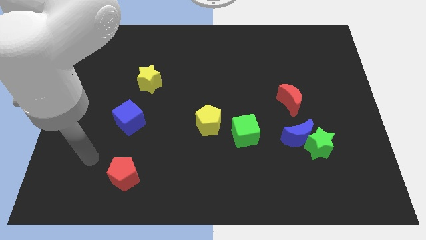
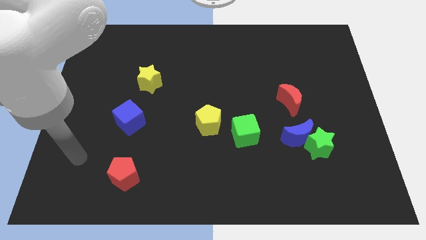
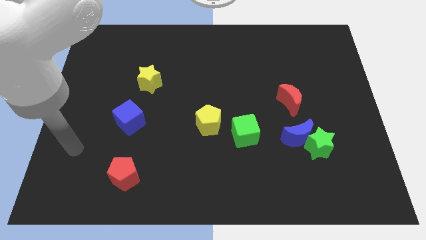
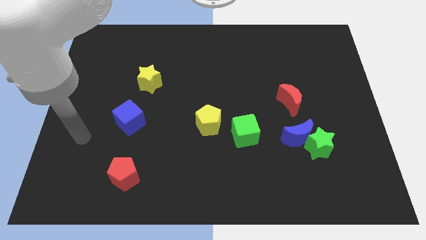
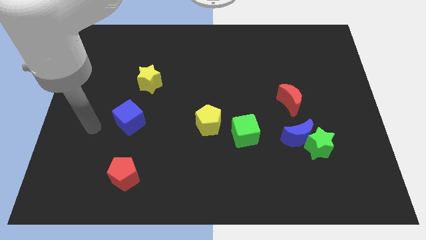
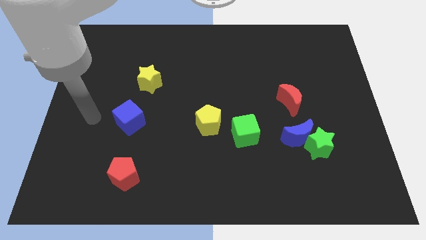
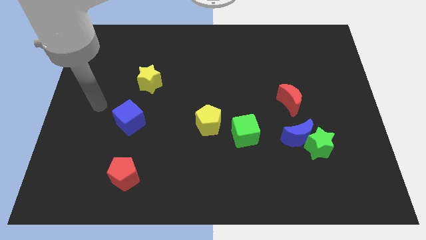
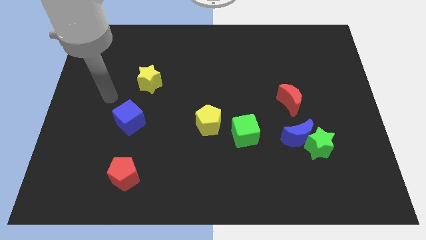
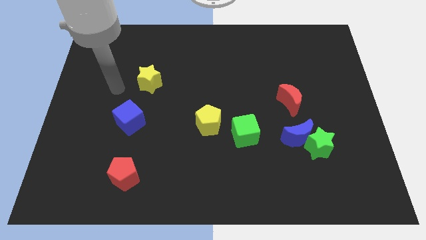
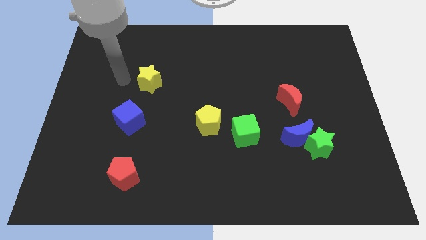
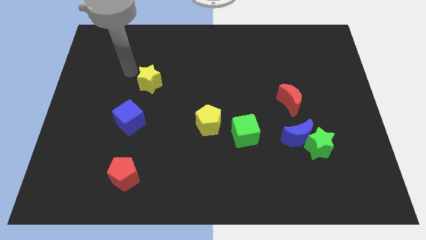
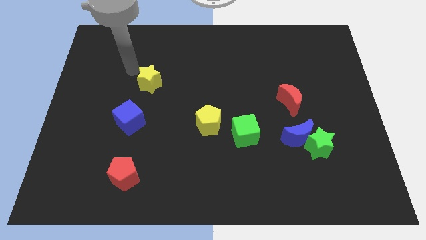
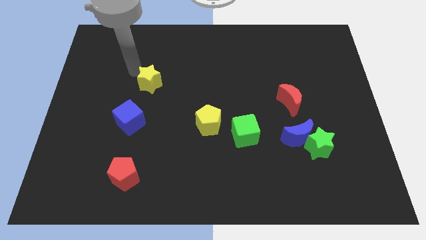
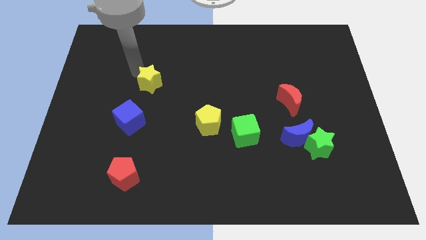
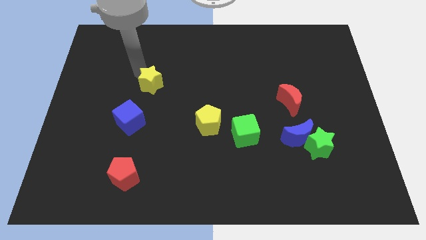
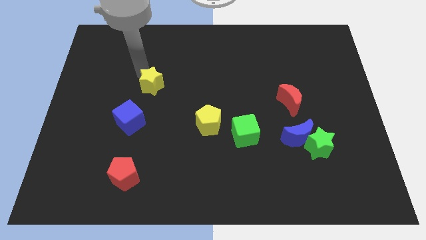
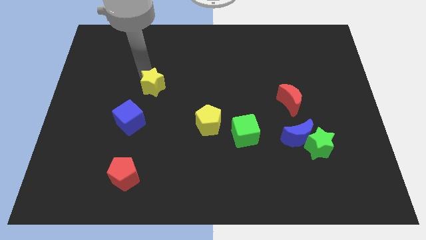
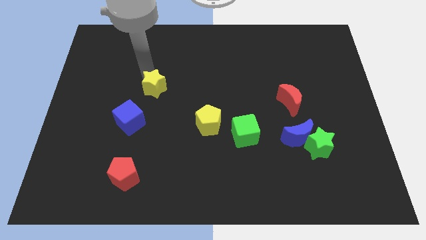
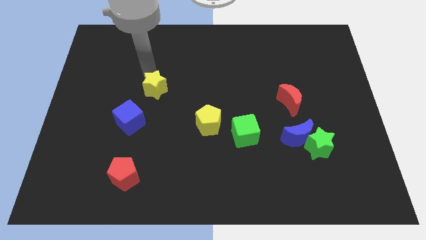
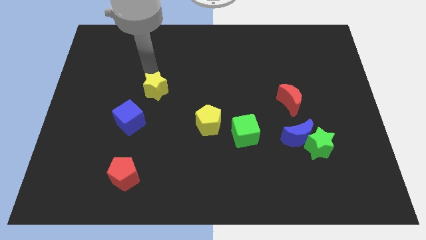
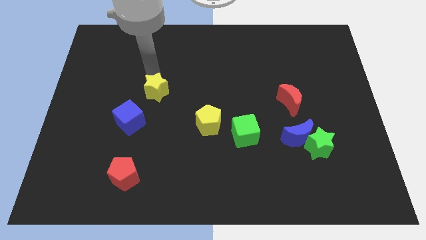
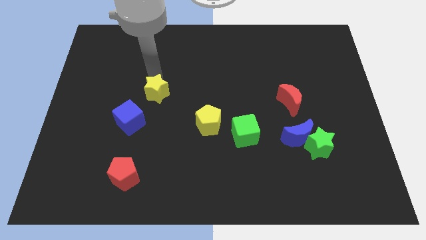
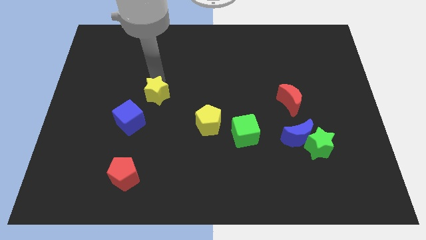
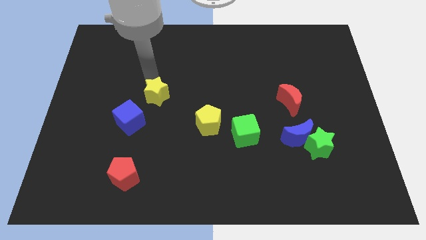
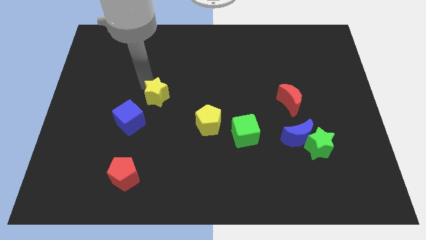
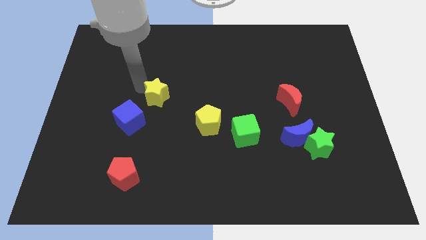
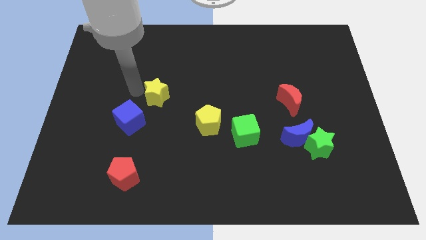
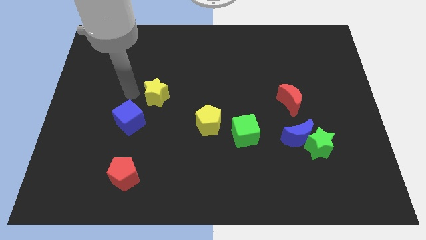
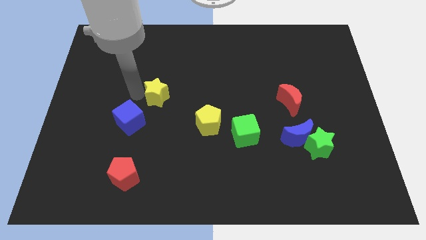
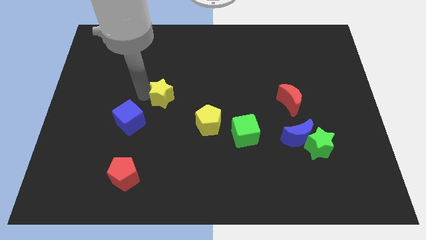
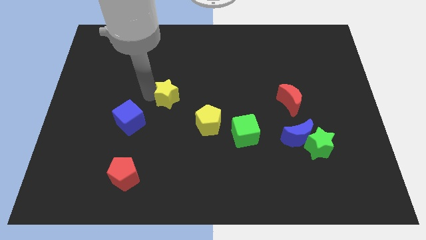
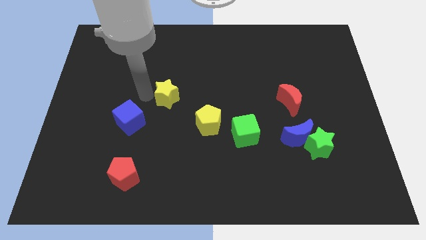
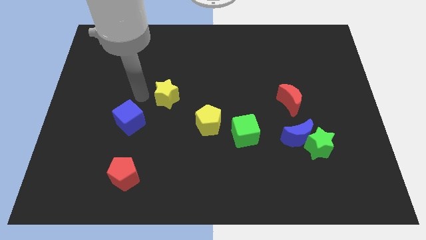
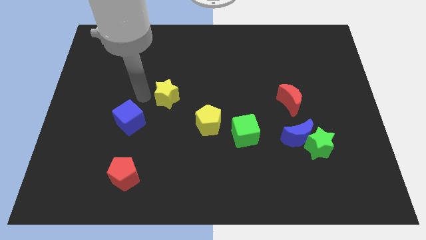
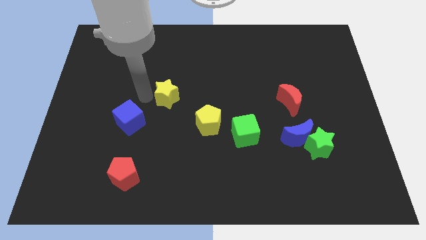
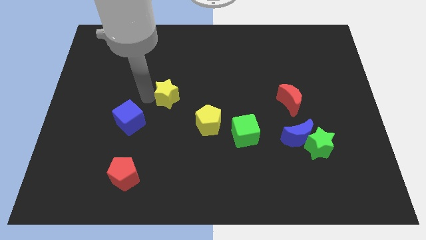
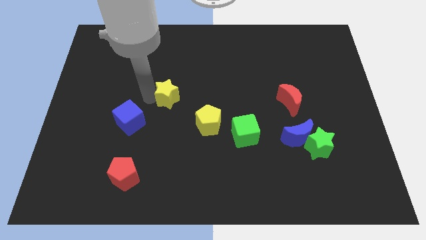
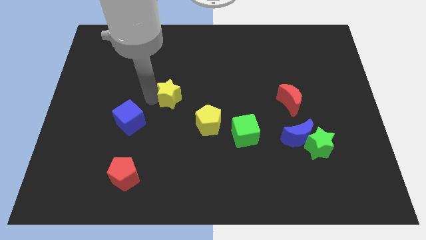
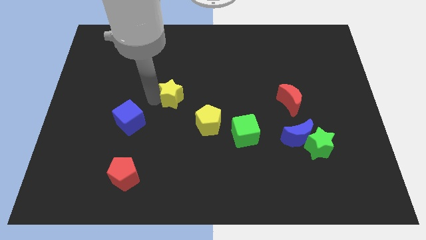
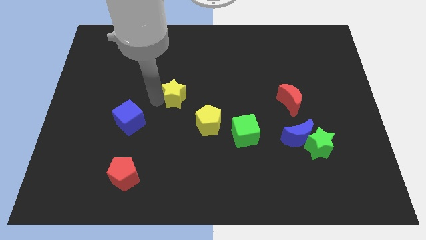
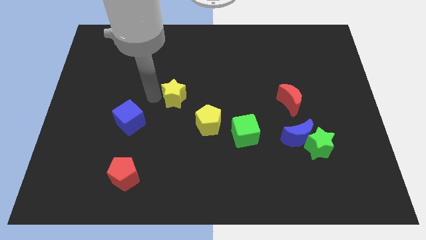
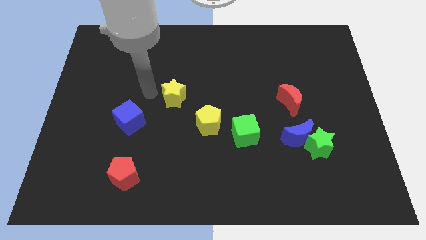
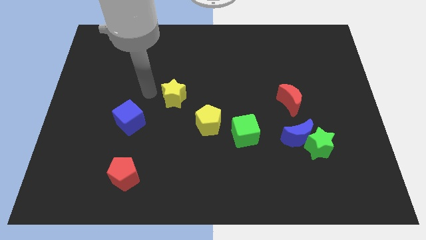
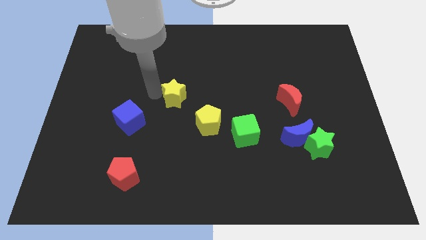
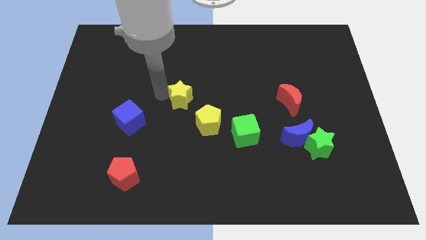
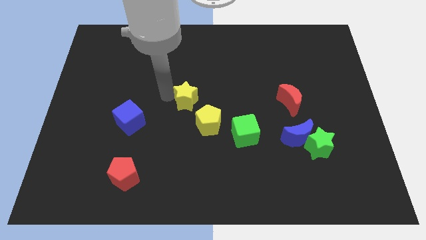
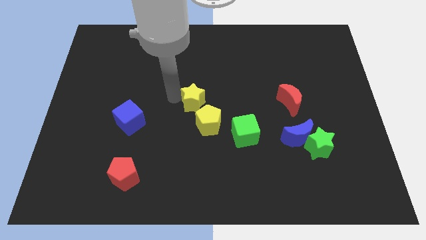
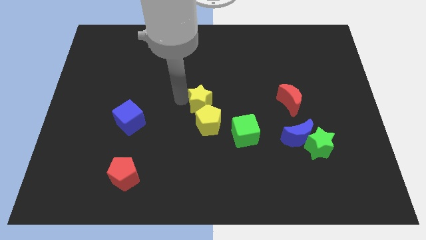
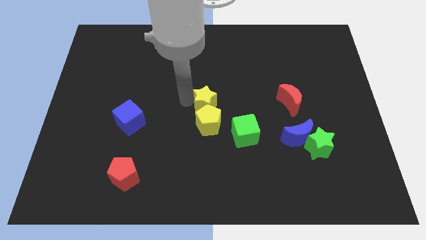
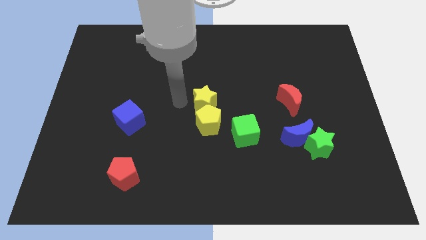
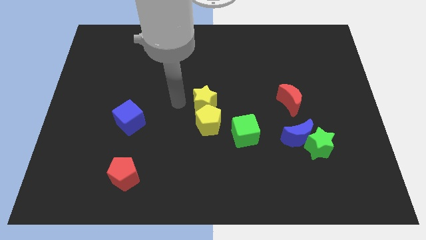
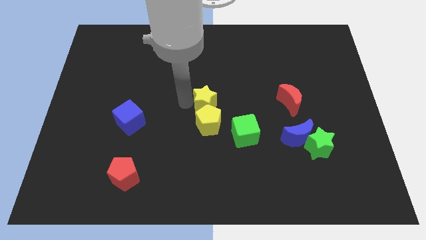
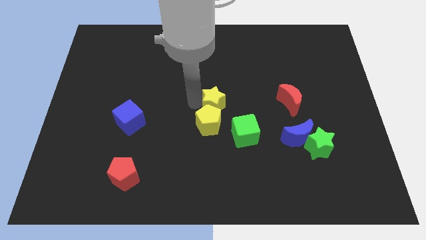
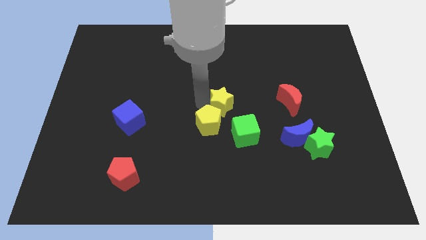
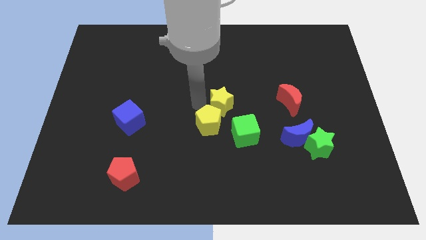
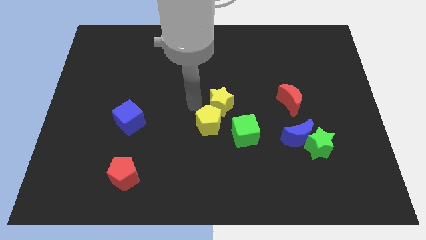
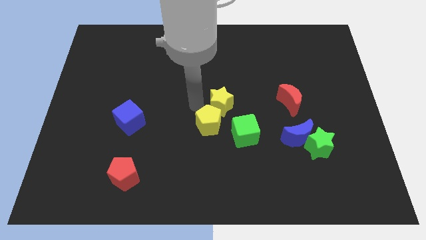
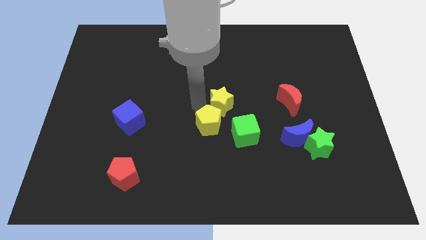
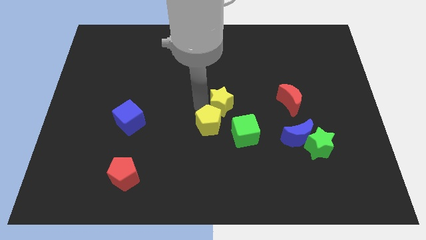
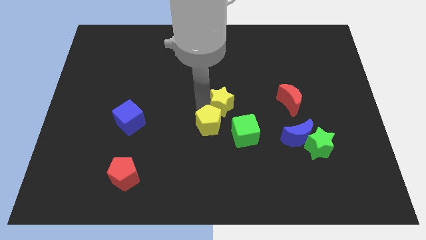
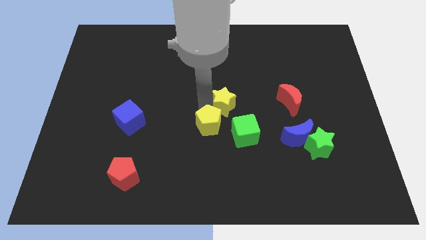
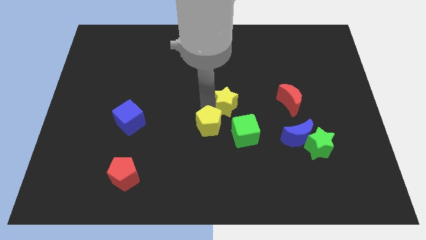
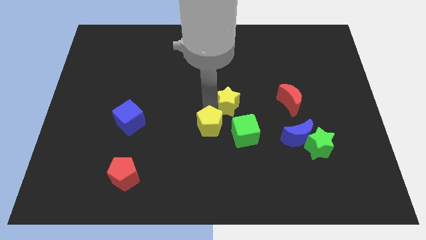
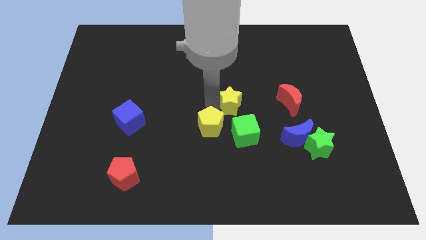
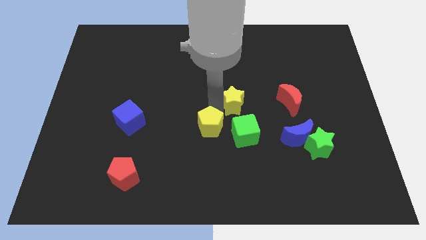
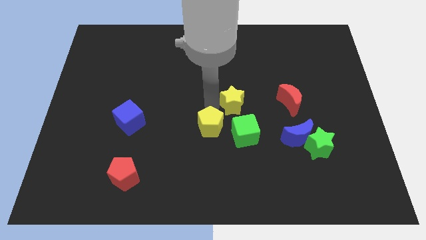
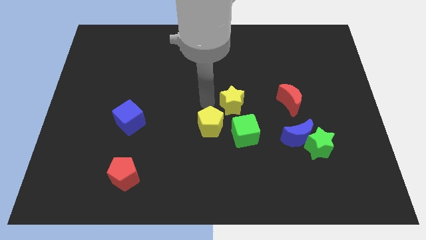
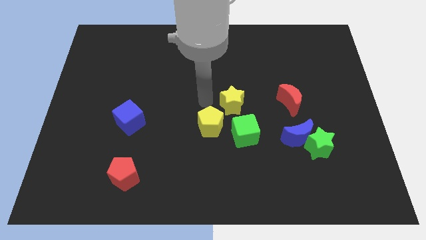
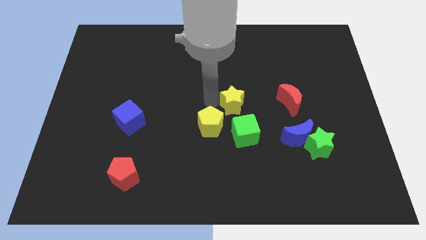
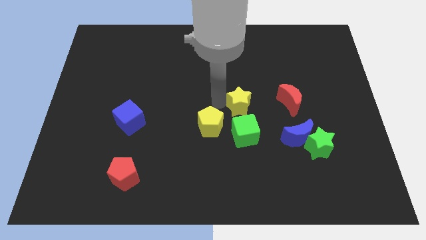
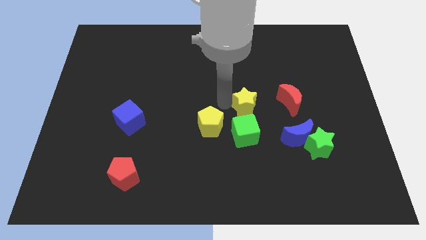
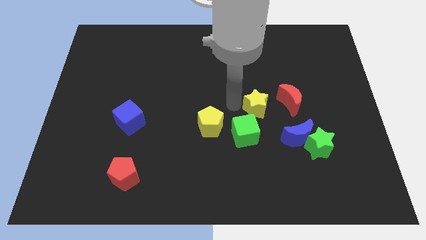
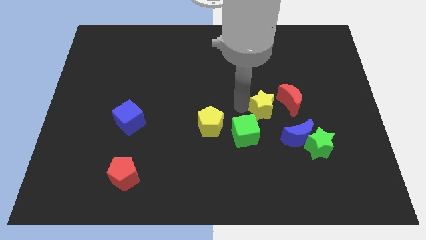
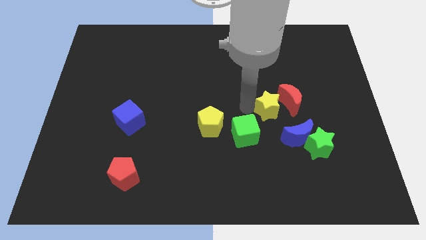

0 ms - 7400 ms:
slide the yellow star next to the red moon
